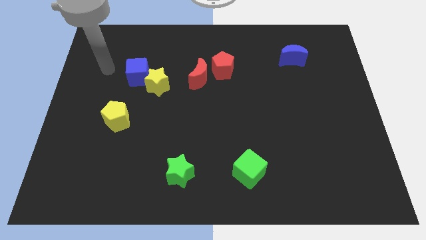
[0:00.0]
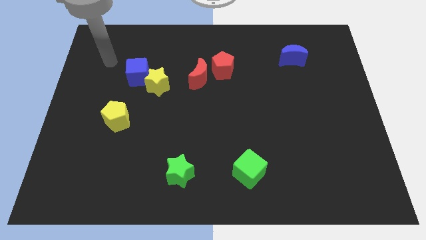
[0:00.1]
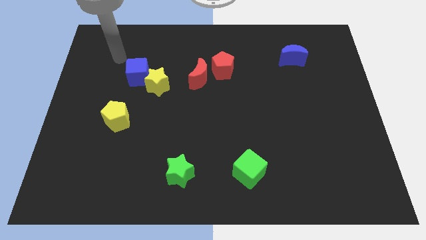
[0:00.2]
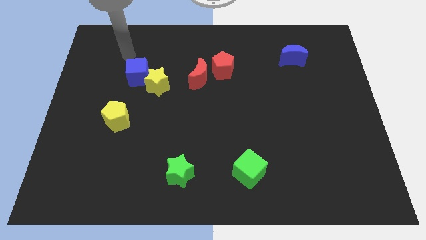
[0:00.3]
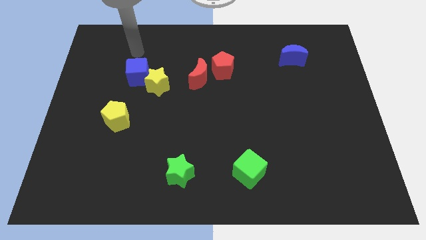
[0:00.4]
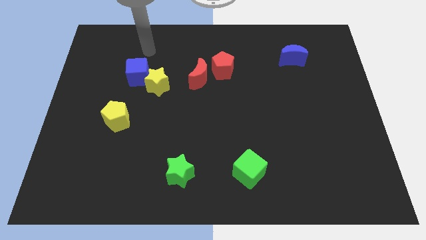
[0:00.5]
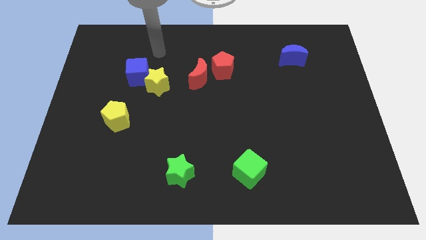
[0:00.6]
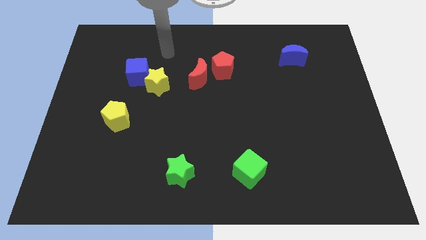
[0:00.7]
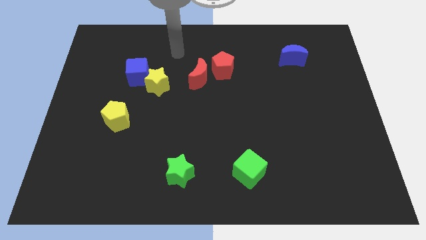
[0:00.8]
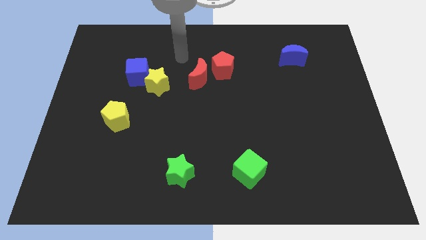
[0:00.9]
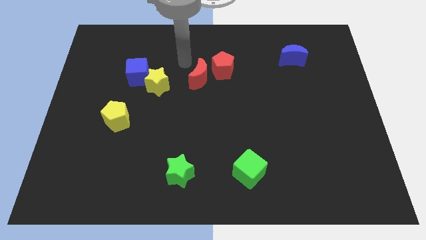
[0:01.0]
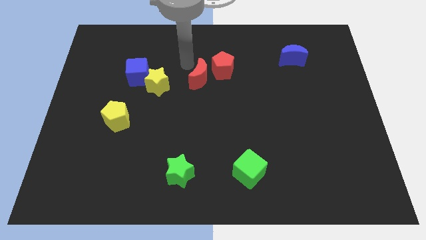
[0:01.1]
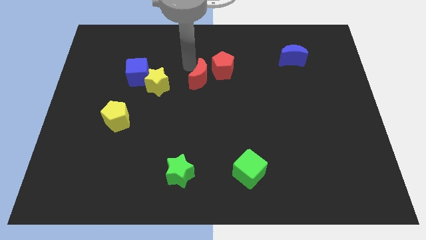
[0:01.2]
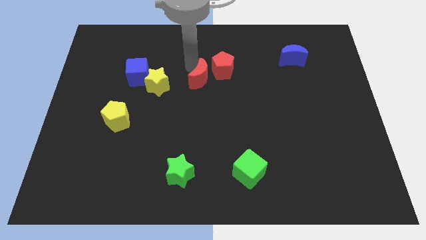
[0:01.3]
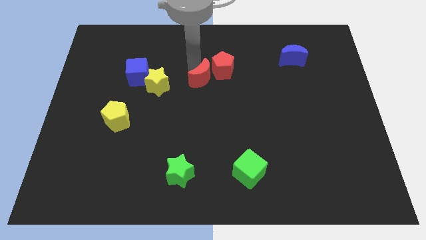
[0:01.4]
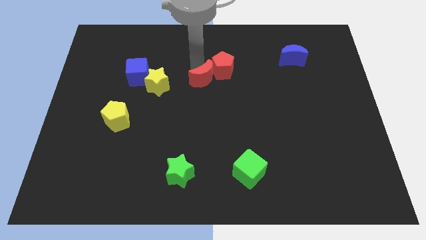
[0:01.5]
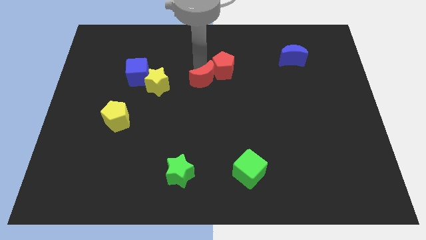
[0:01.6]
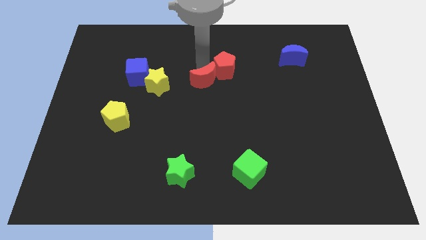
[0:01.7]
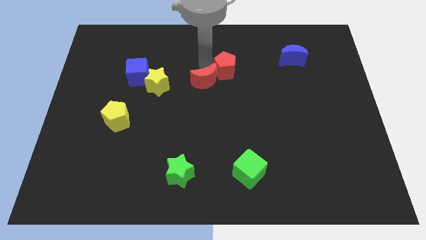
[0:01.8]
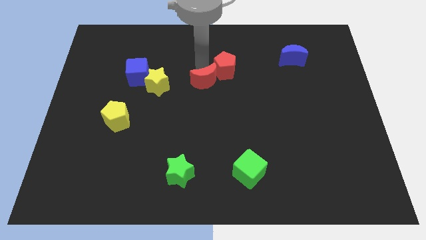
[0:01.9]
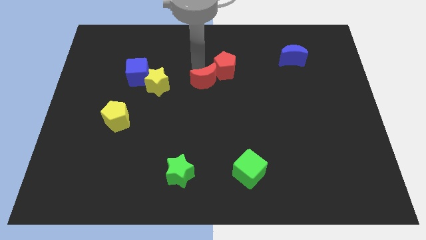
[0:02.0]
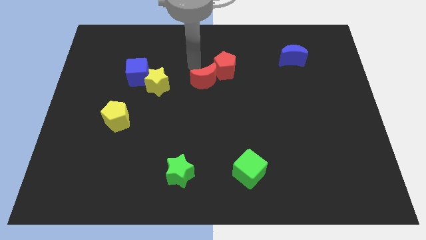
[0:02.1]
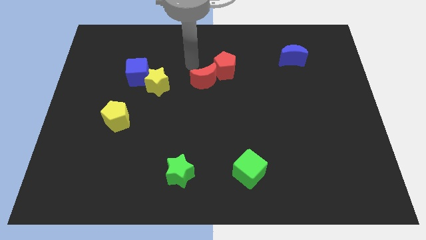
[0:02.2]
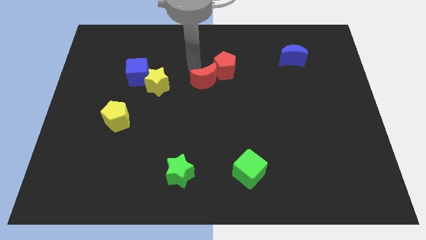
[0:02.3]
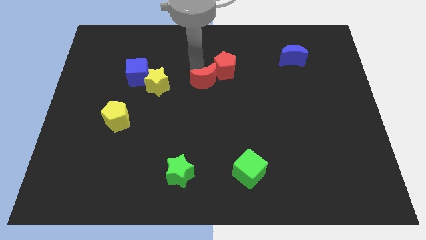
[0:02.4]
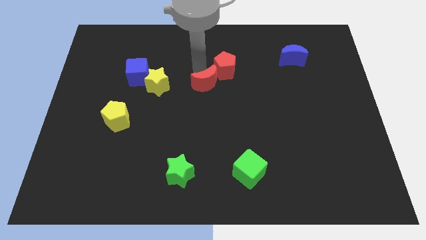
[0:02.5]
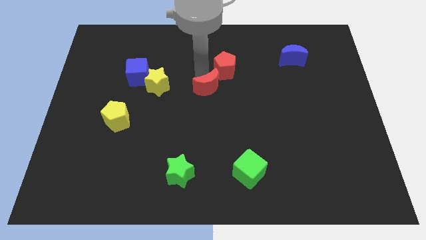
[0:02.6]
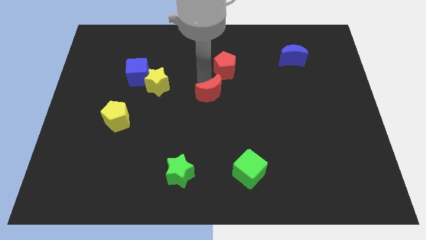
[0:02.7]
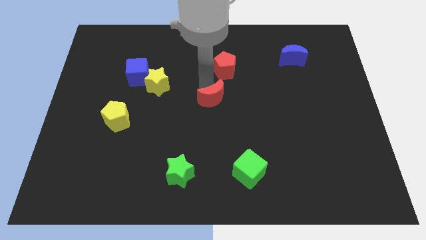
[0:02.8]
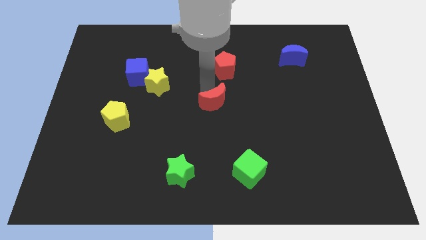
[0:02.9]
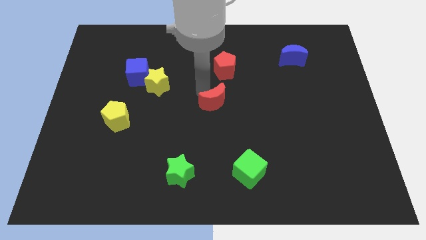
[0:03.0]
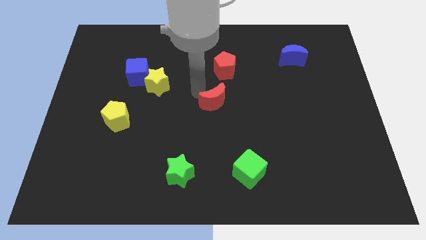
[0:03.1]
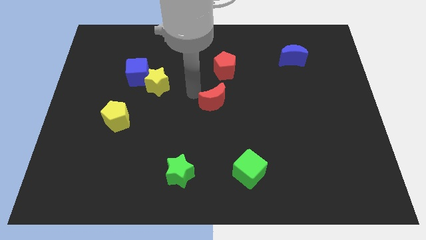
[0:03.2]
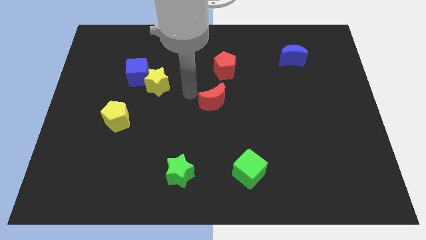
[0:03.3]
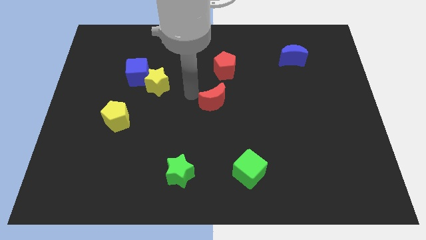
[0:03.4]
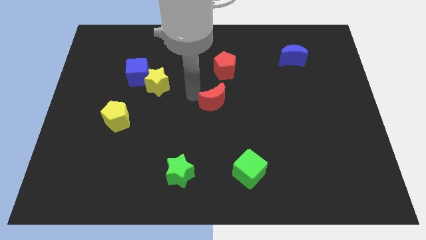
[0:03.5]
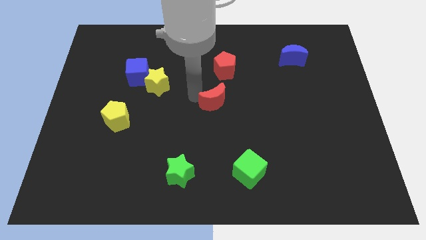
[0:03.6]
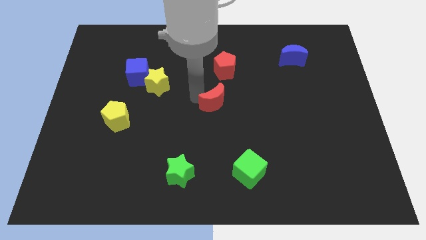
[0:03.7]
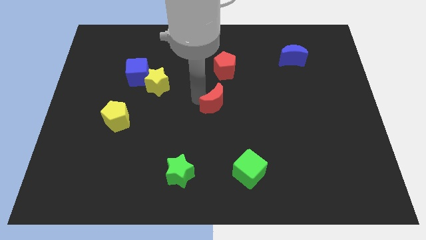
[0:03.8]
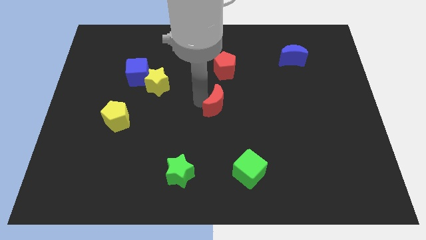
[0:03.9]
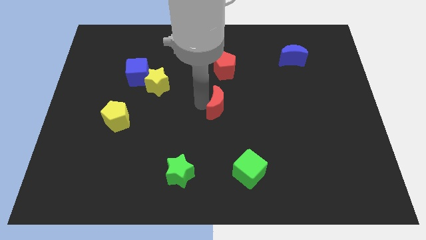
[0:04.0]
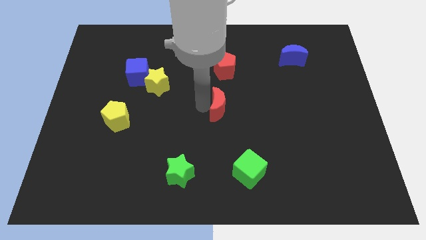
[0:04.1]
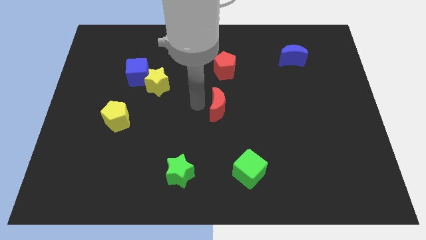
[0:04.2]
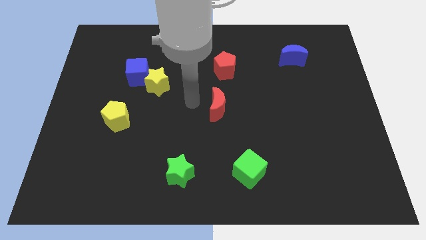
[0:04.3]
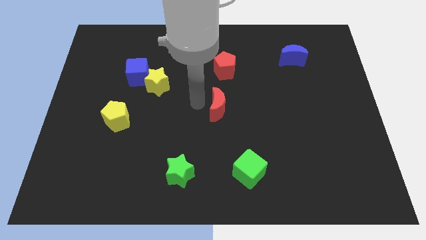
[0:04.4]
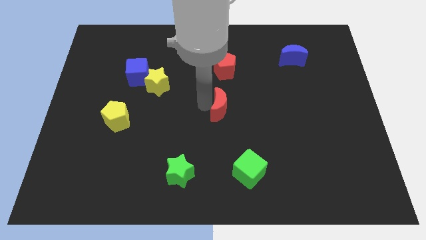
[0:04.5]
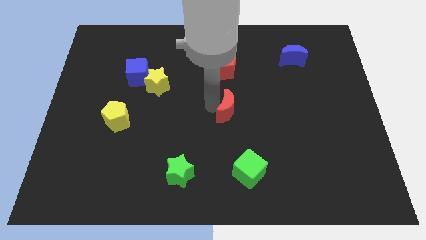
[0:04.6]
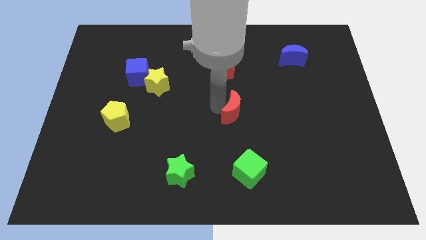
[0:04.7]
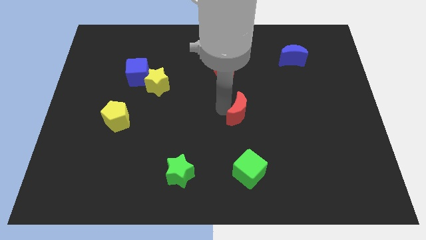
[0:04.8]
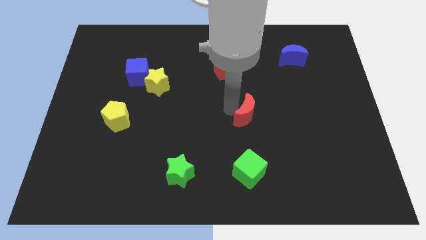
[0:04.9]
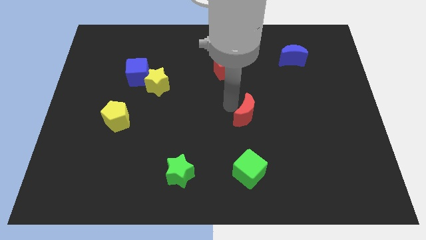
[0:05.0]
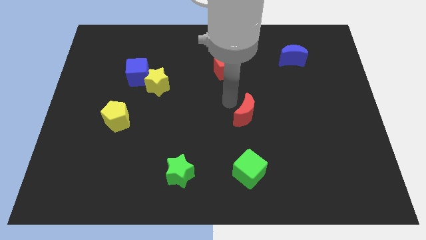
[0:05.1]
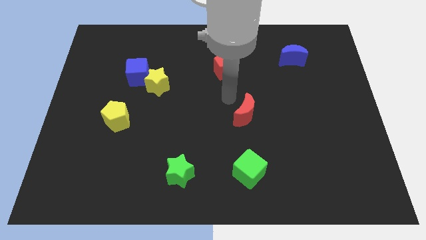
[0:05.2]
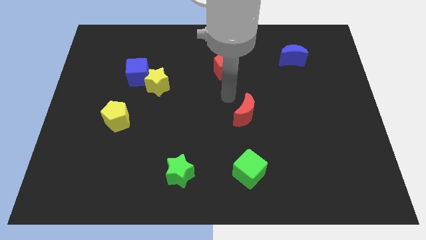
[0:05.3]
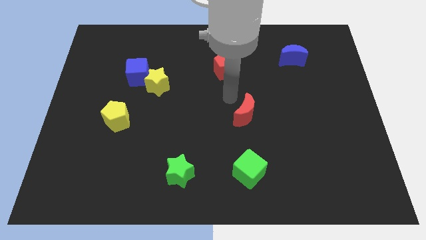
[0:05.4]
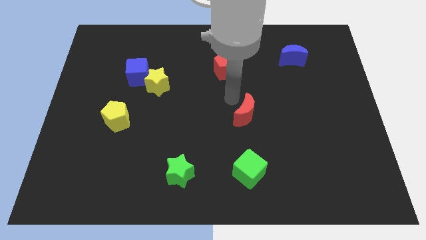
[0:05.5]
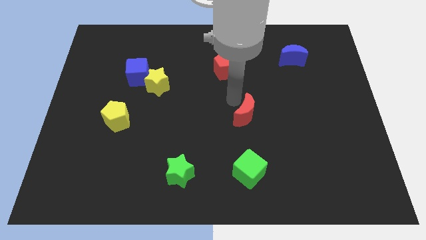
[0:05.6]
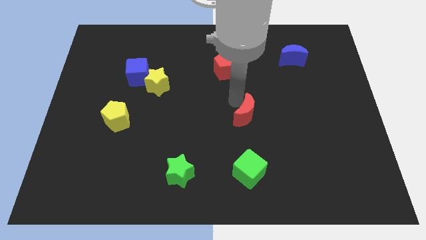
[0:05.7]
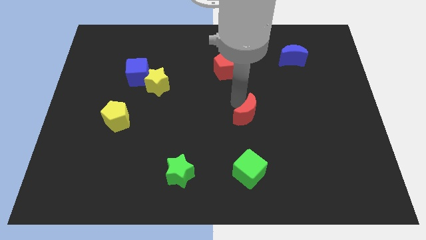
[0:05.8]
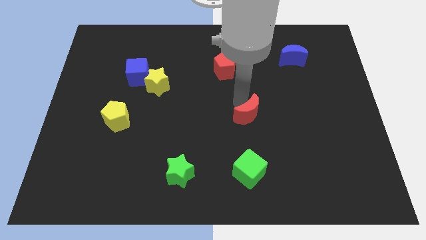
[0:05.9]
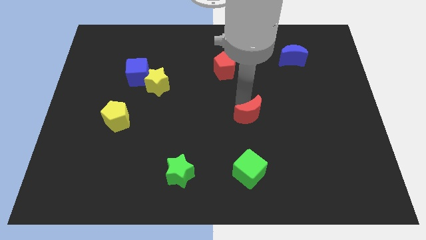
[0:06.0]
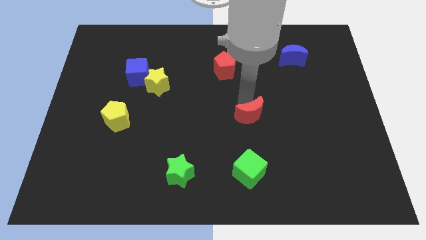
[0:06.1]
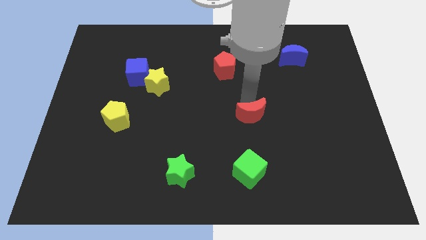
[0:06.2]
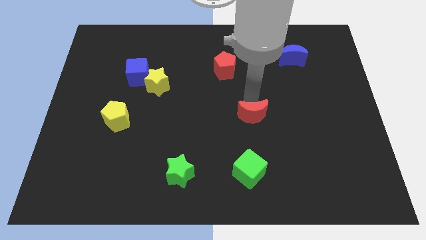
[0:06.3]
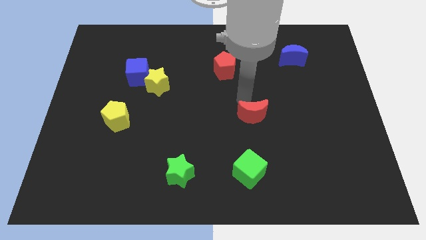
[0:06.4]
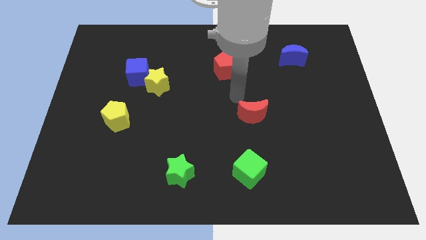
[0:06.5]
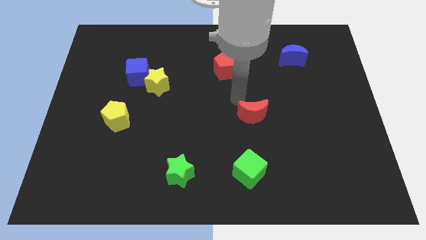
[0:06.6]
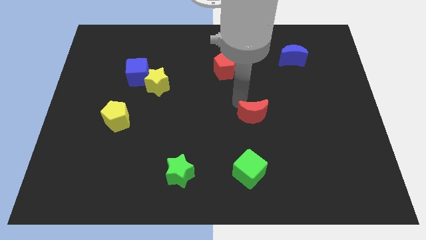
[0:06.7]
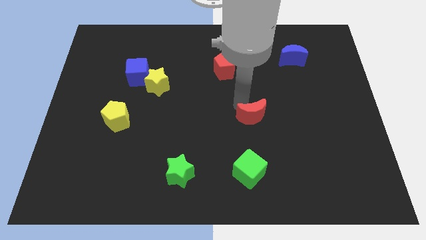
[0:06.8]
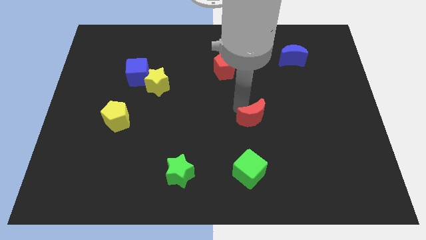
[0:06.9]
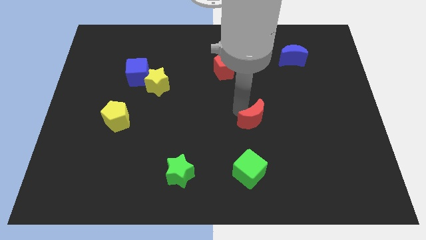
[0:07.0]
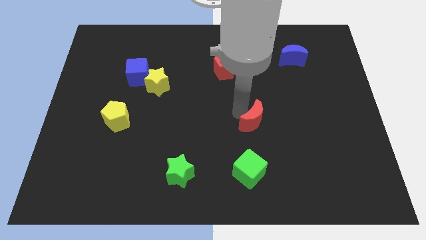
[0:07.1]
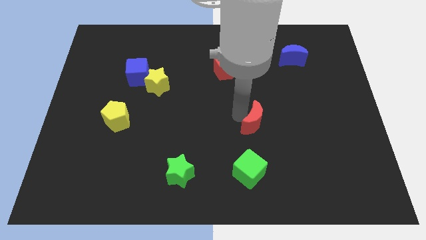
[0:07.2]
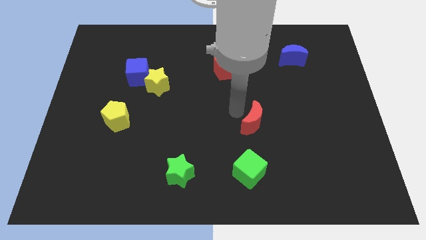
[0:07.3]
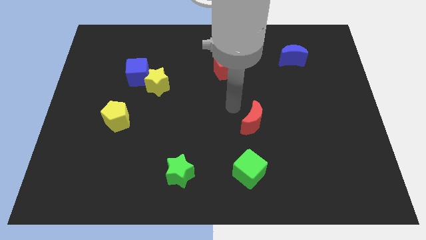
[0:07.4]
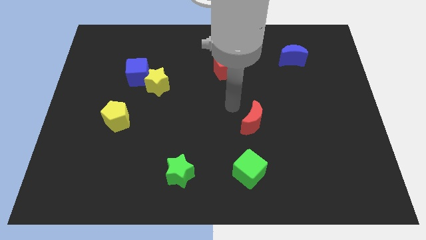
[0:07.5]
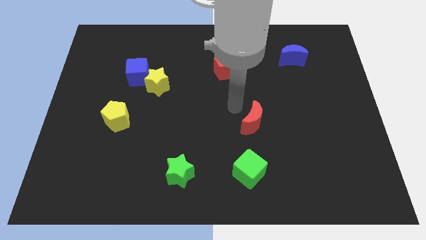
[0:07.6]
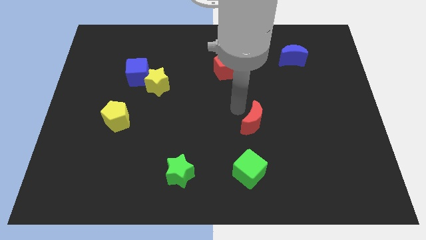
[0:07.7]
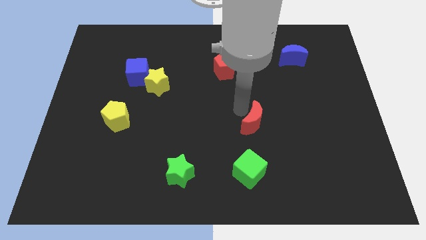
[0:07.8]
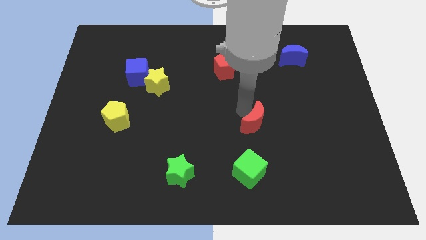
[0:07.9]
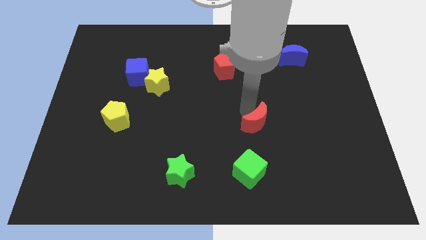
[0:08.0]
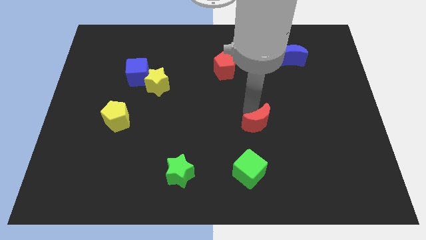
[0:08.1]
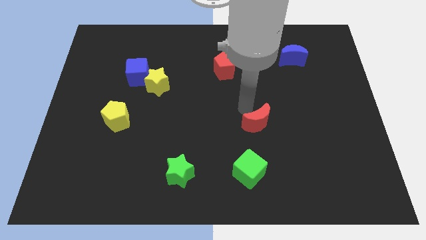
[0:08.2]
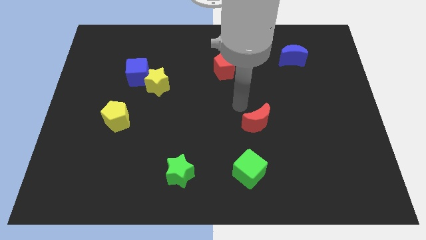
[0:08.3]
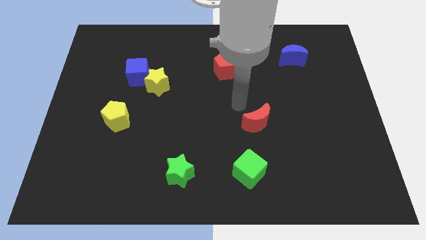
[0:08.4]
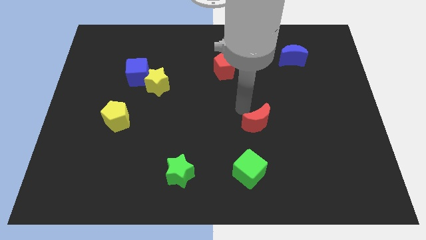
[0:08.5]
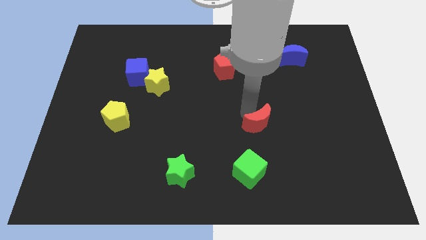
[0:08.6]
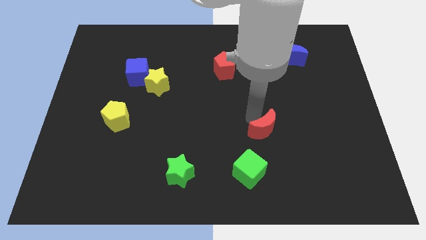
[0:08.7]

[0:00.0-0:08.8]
move the red moon diagonally down and to the right
